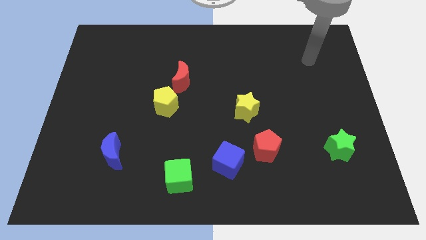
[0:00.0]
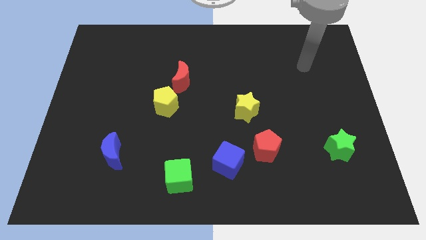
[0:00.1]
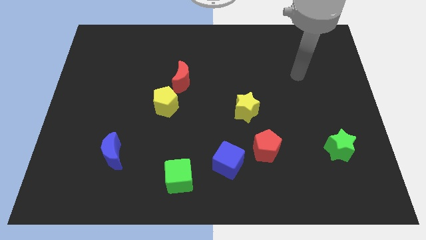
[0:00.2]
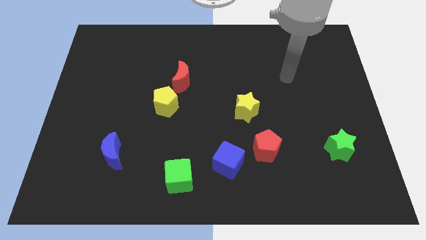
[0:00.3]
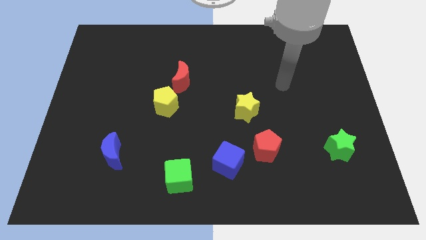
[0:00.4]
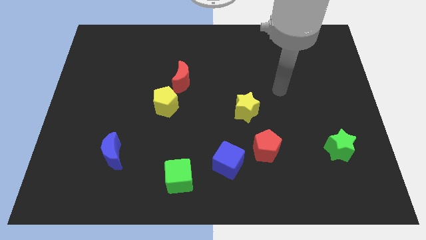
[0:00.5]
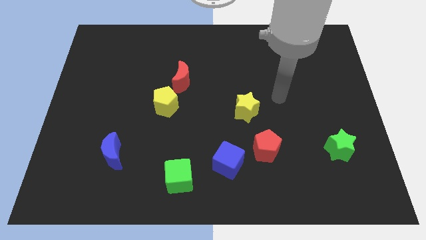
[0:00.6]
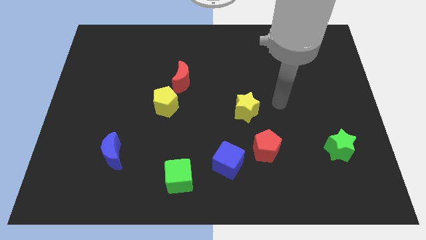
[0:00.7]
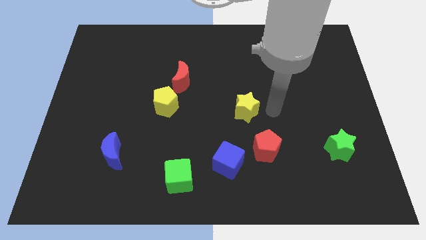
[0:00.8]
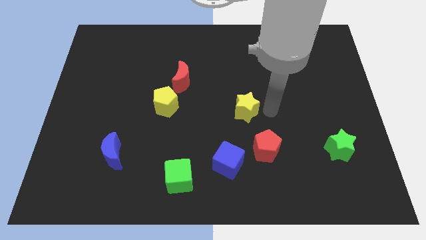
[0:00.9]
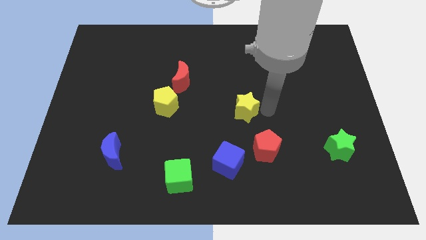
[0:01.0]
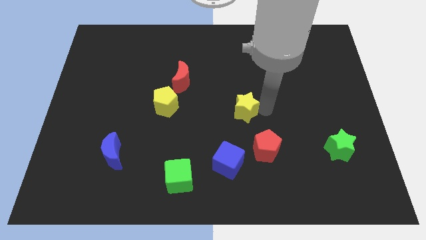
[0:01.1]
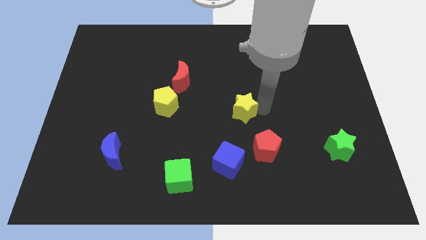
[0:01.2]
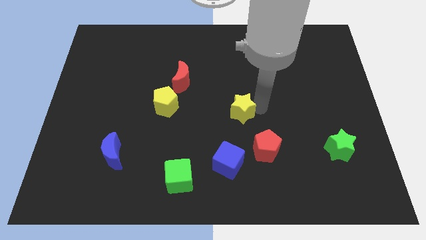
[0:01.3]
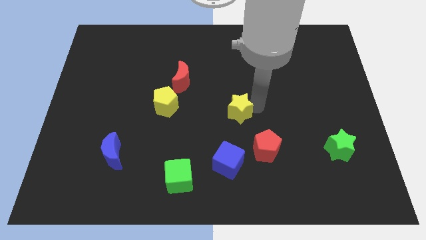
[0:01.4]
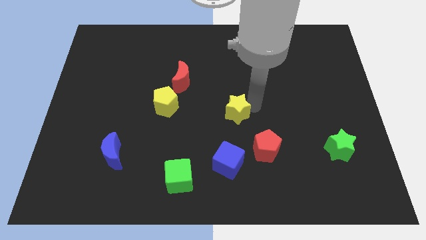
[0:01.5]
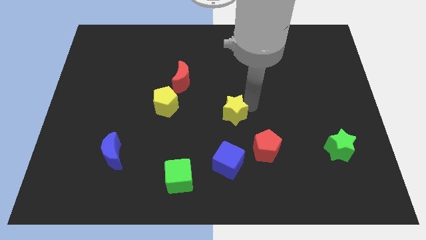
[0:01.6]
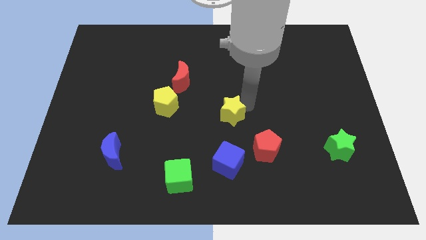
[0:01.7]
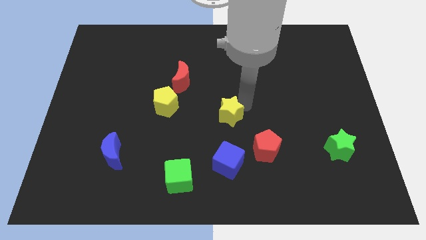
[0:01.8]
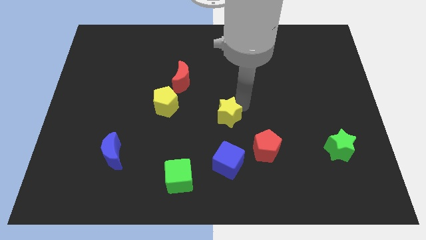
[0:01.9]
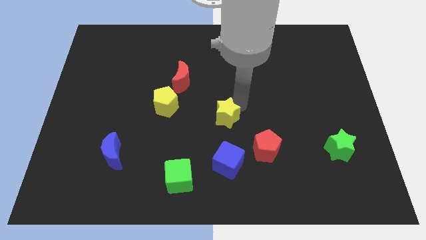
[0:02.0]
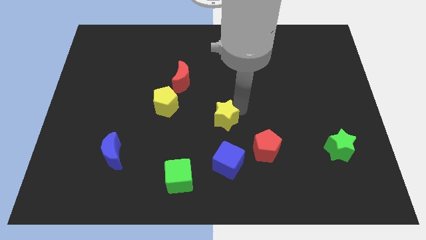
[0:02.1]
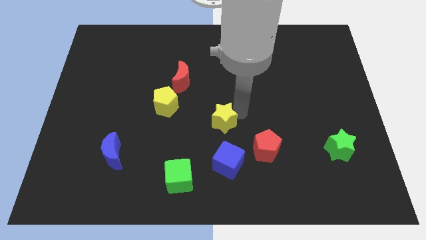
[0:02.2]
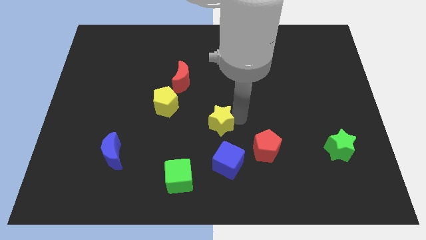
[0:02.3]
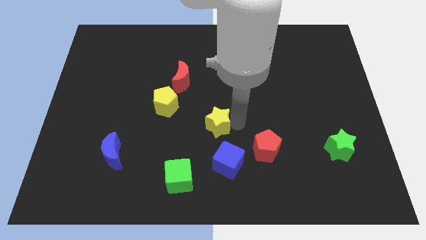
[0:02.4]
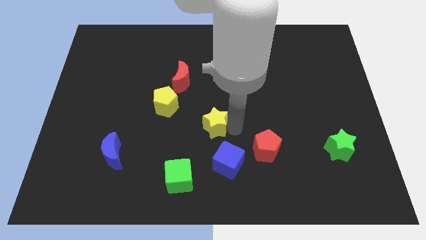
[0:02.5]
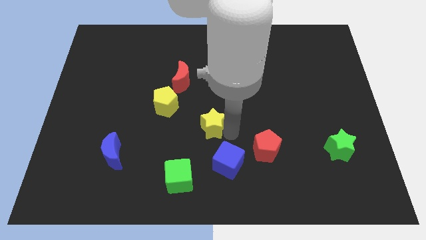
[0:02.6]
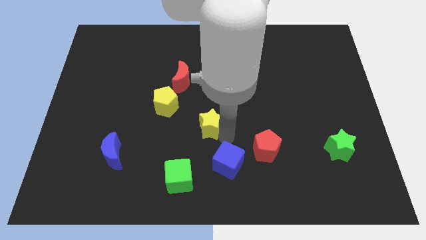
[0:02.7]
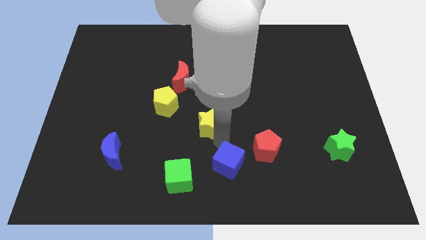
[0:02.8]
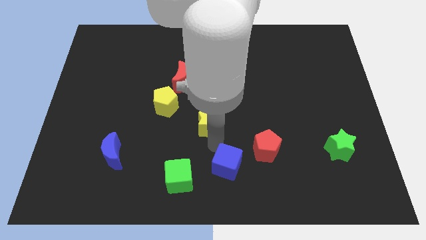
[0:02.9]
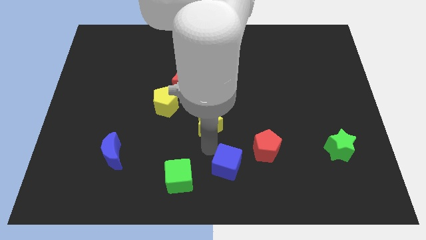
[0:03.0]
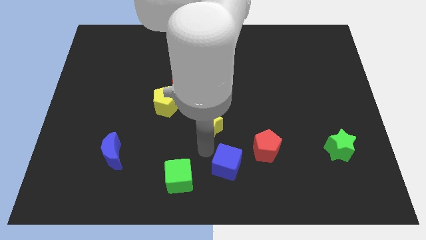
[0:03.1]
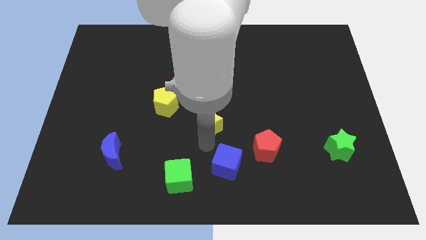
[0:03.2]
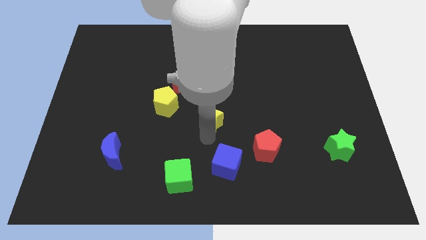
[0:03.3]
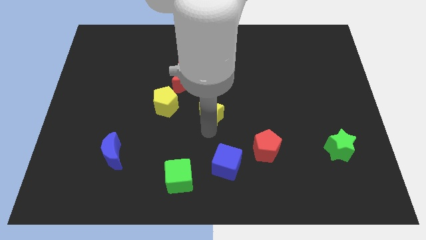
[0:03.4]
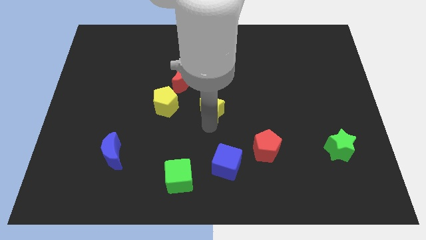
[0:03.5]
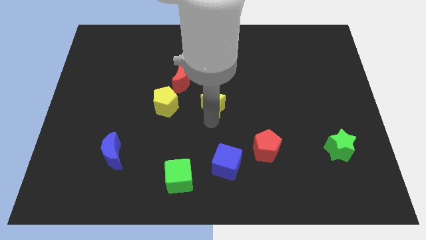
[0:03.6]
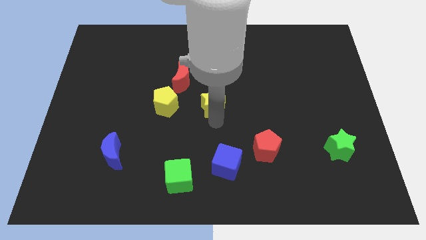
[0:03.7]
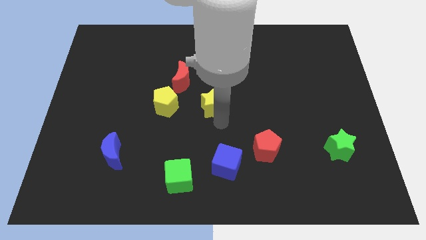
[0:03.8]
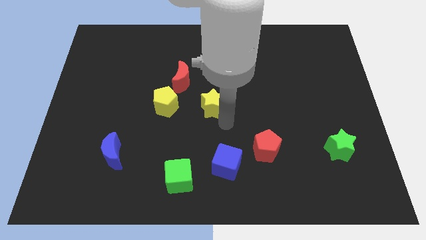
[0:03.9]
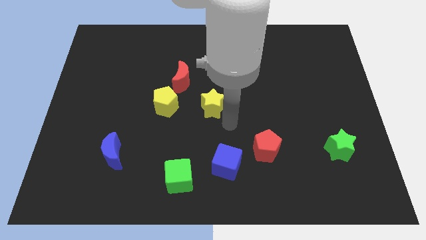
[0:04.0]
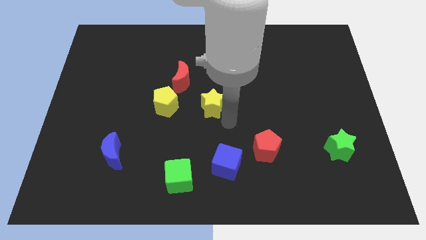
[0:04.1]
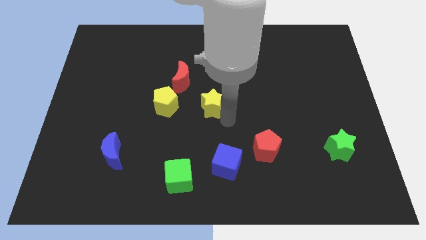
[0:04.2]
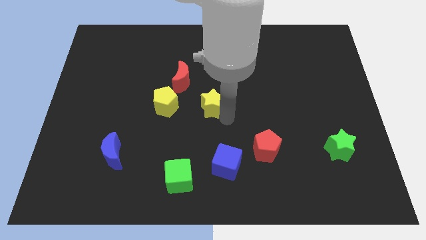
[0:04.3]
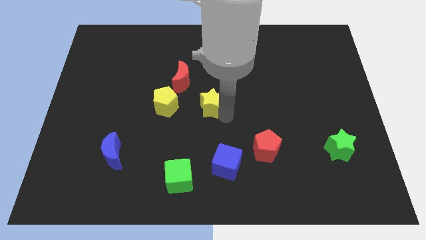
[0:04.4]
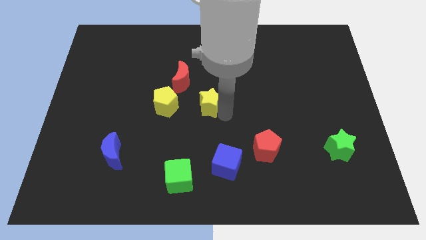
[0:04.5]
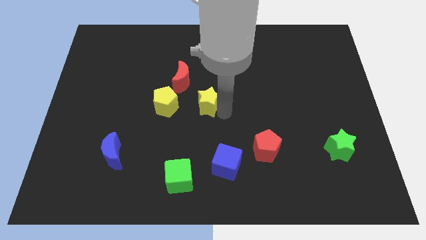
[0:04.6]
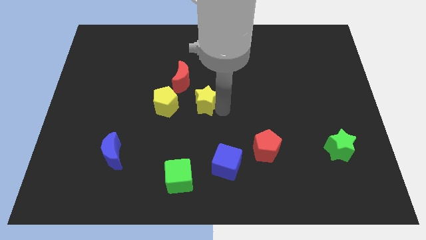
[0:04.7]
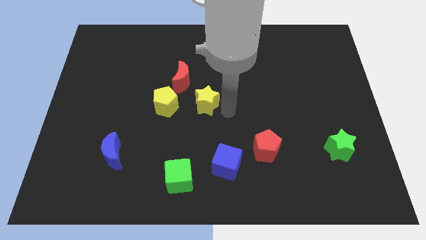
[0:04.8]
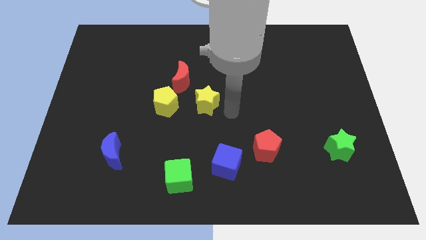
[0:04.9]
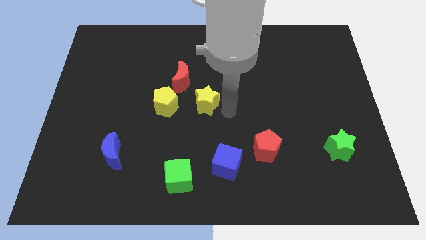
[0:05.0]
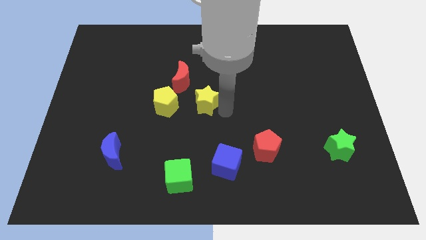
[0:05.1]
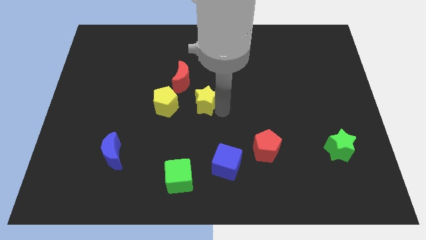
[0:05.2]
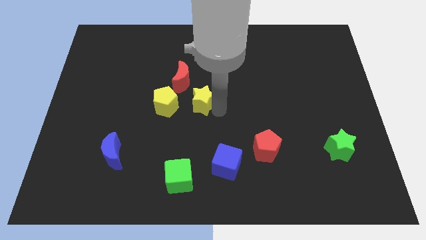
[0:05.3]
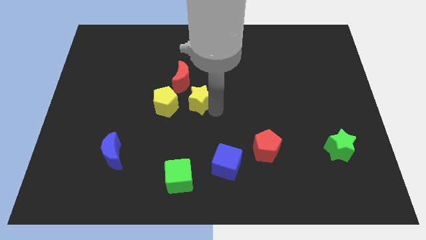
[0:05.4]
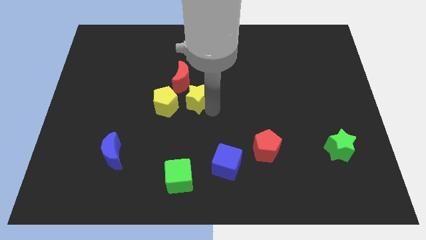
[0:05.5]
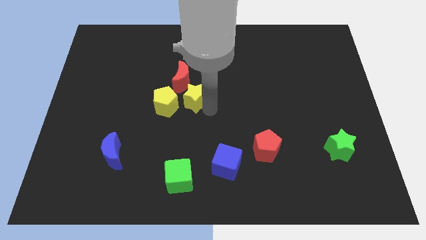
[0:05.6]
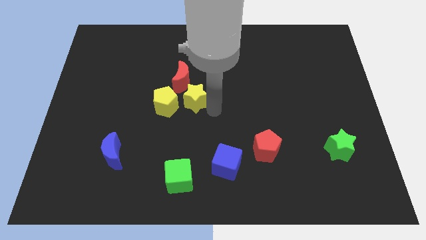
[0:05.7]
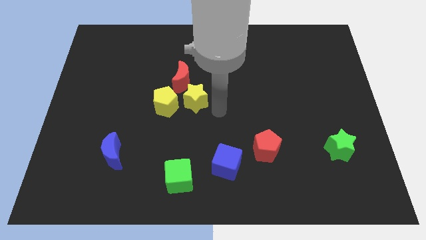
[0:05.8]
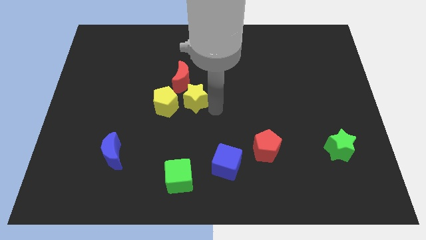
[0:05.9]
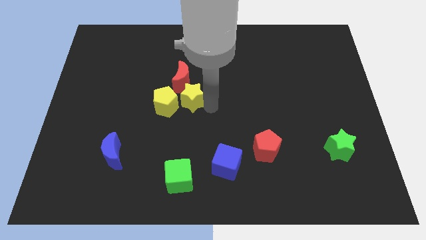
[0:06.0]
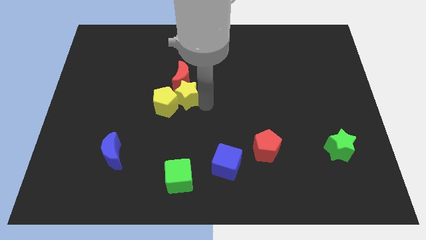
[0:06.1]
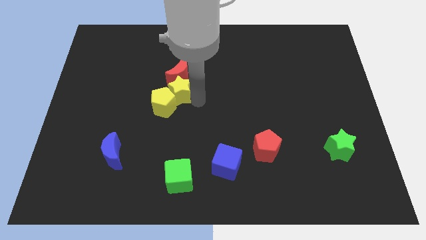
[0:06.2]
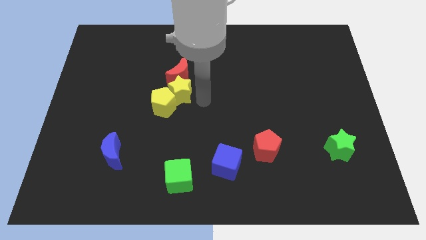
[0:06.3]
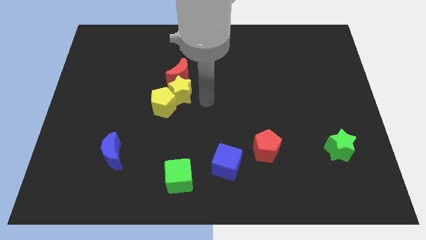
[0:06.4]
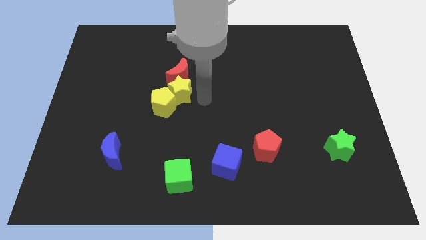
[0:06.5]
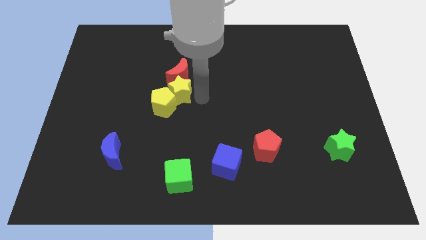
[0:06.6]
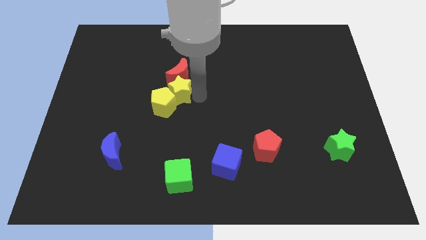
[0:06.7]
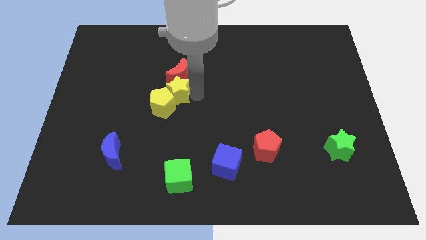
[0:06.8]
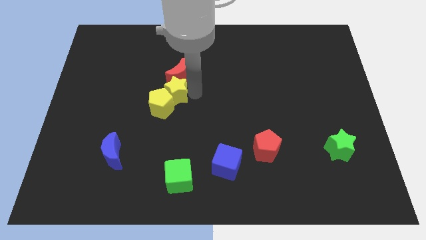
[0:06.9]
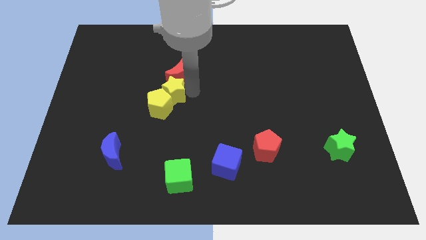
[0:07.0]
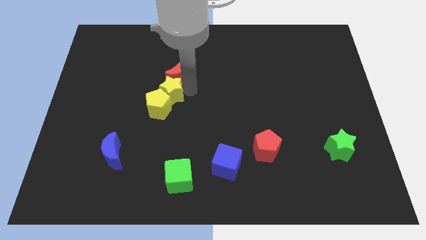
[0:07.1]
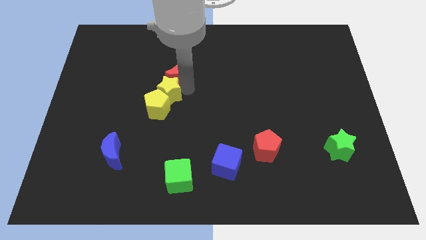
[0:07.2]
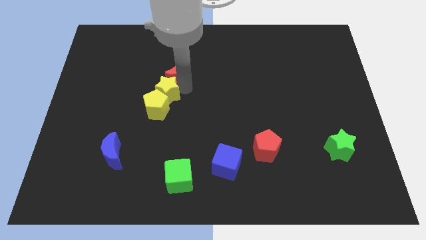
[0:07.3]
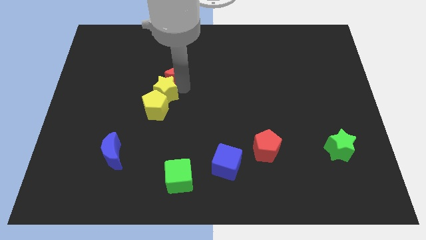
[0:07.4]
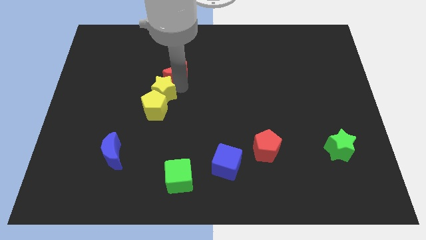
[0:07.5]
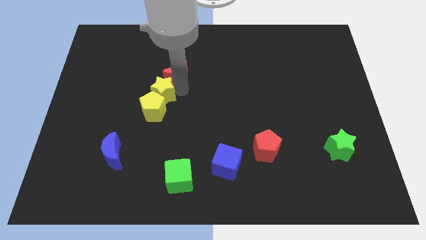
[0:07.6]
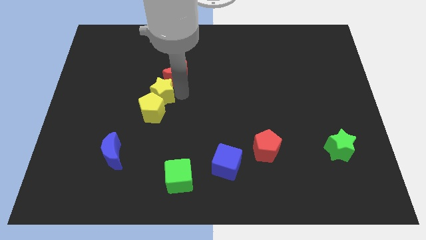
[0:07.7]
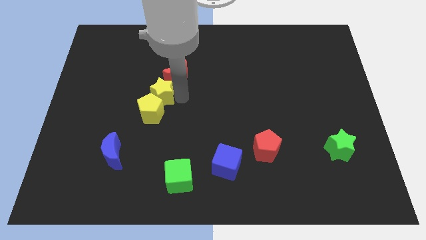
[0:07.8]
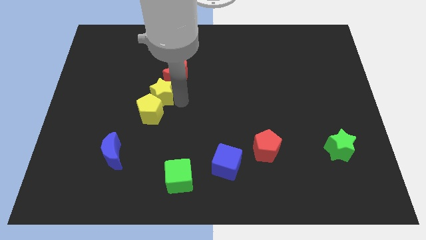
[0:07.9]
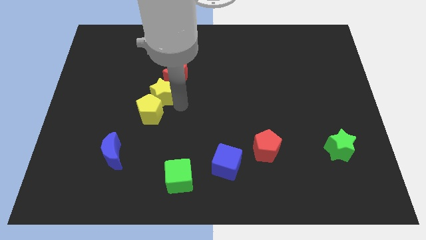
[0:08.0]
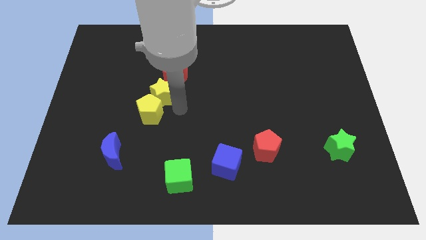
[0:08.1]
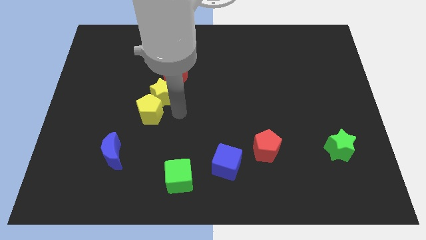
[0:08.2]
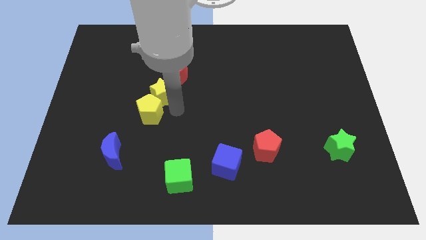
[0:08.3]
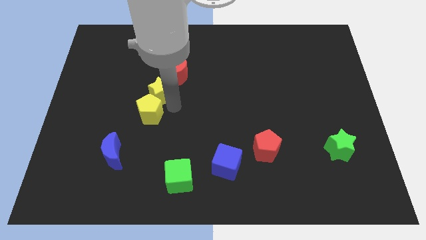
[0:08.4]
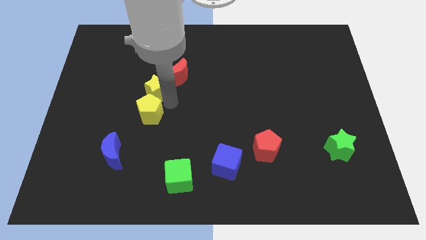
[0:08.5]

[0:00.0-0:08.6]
put the yellow star left of the red moon
